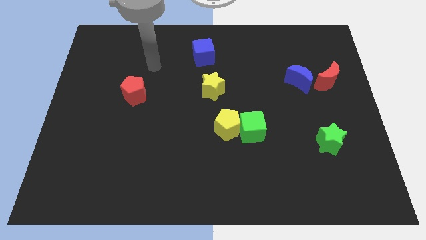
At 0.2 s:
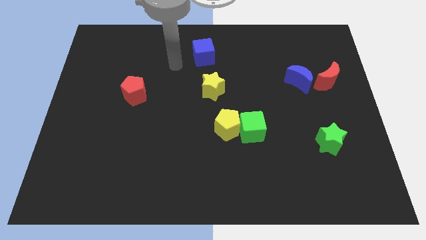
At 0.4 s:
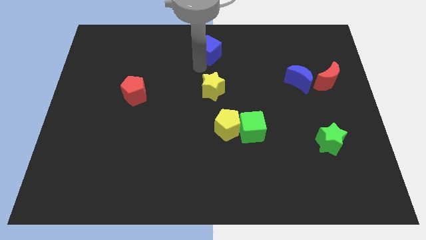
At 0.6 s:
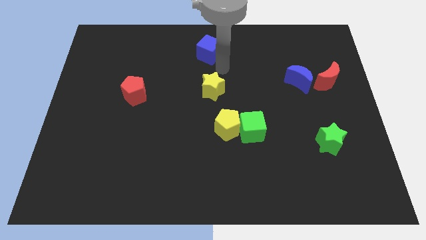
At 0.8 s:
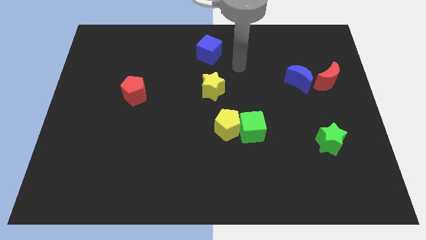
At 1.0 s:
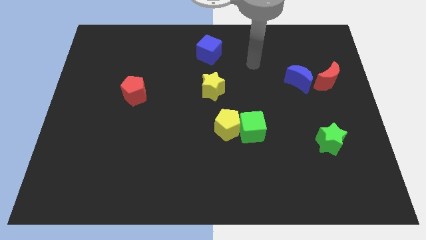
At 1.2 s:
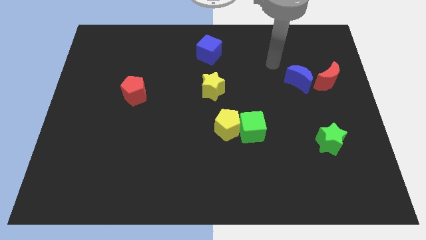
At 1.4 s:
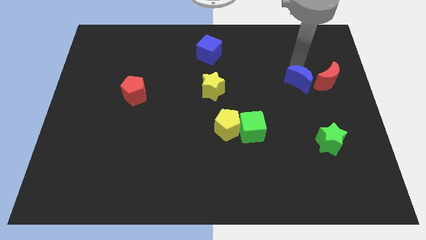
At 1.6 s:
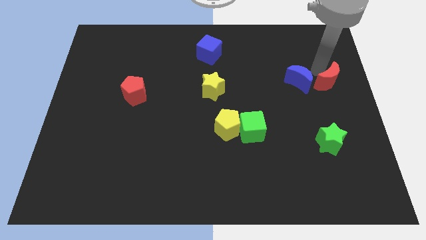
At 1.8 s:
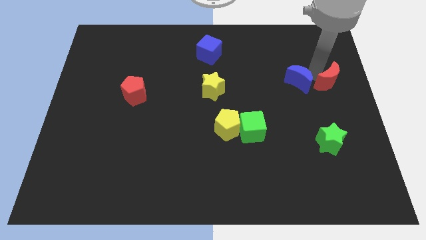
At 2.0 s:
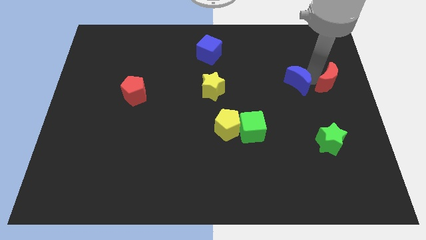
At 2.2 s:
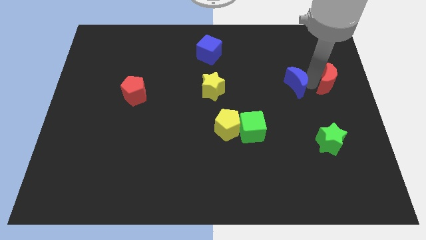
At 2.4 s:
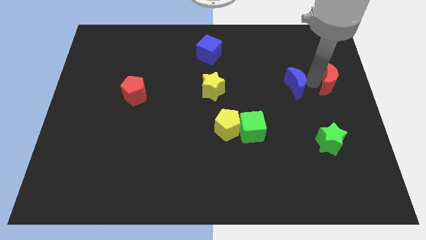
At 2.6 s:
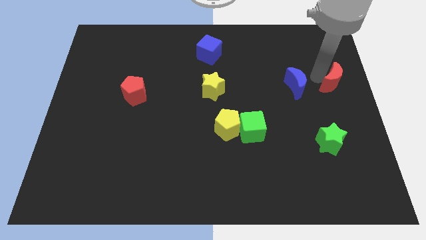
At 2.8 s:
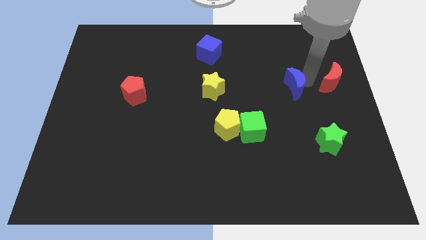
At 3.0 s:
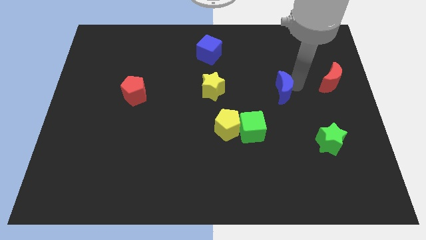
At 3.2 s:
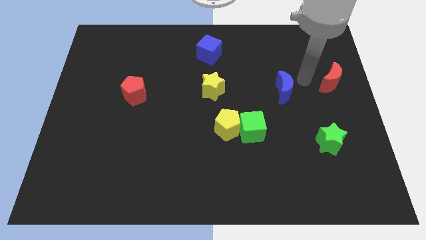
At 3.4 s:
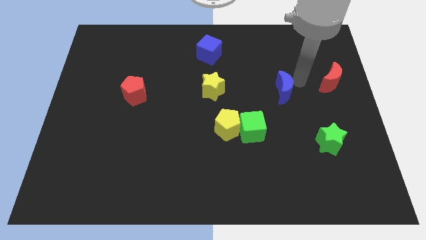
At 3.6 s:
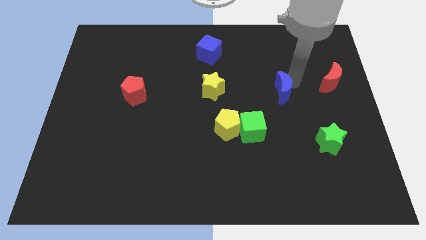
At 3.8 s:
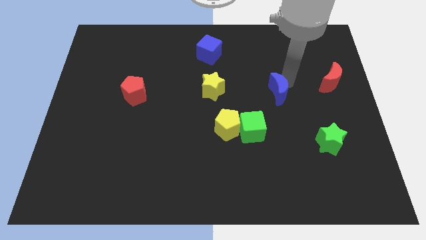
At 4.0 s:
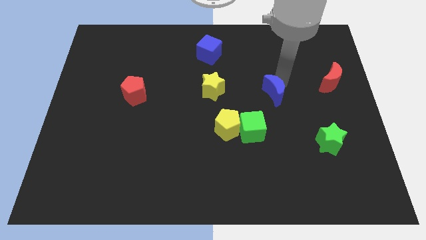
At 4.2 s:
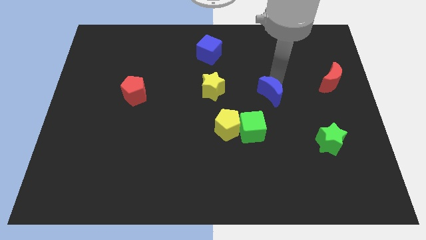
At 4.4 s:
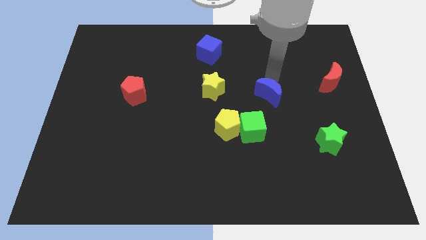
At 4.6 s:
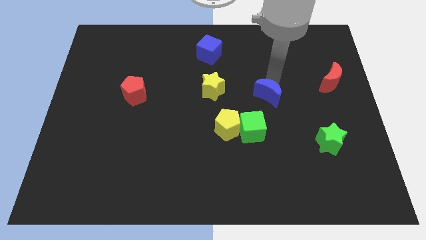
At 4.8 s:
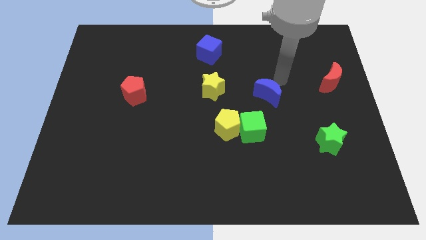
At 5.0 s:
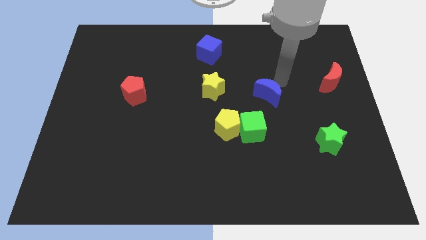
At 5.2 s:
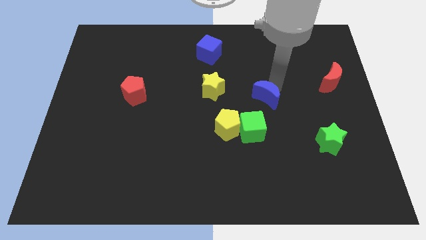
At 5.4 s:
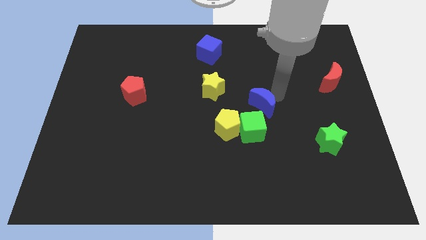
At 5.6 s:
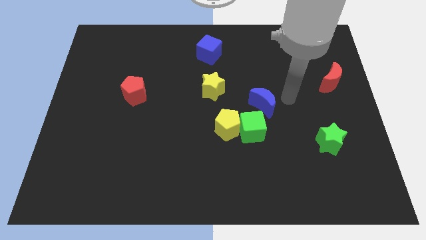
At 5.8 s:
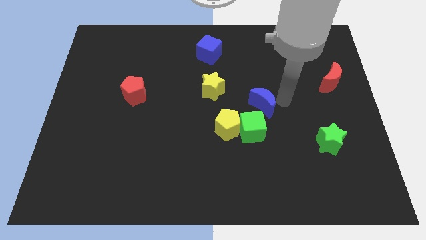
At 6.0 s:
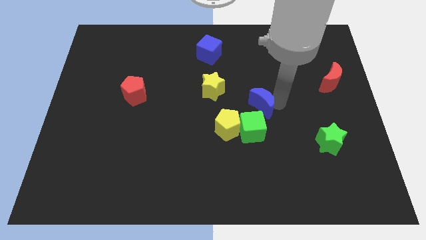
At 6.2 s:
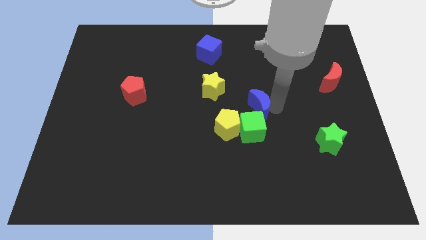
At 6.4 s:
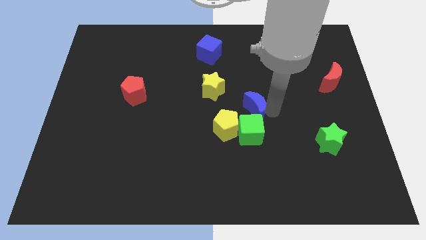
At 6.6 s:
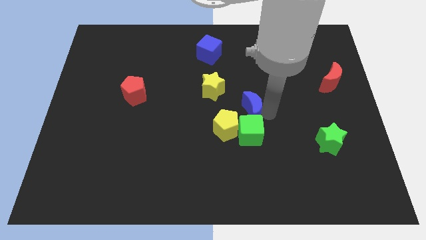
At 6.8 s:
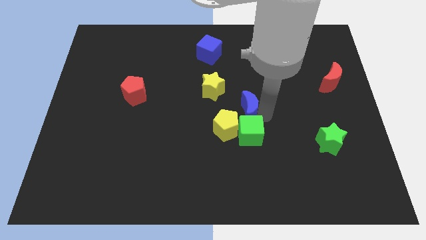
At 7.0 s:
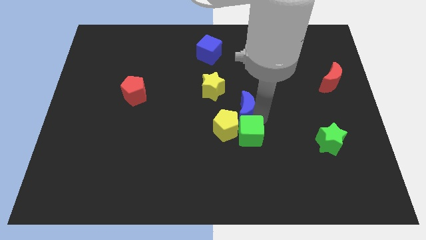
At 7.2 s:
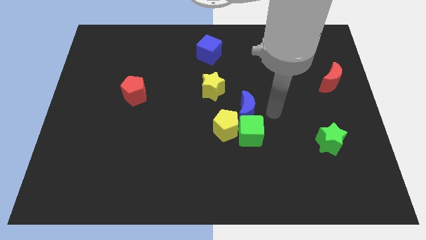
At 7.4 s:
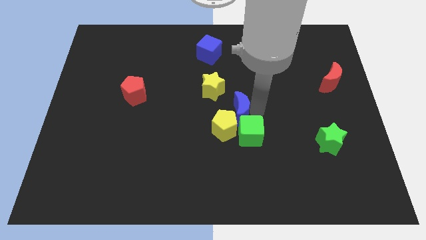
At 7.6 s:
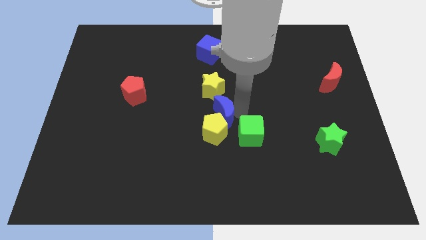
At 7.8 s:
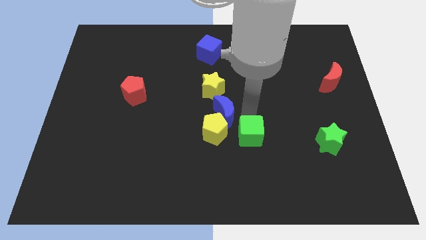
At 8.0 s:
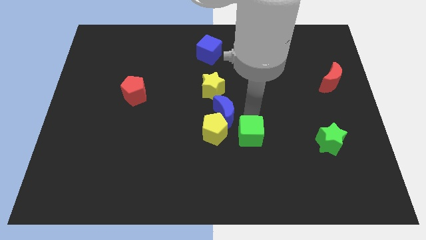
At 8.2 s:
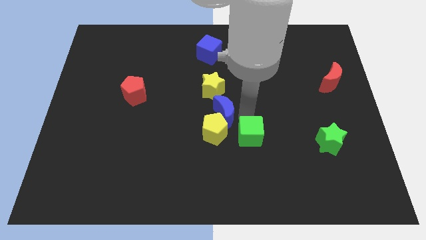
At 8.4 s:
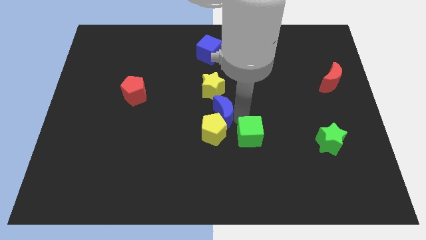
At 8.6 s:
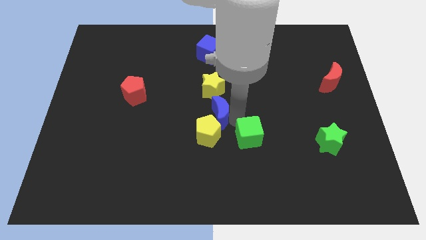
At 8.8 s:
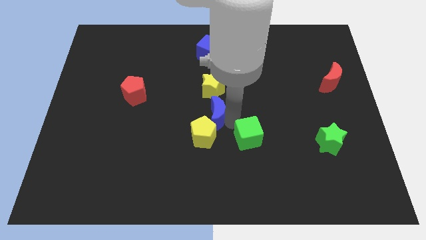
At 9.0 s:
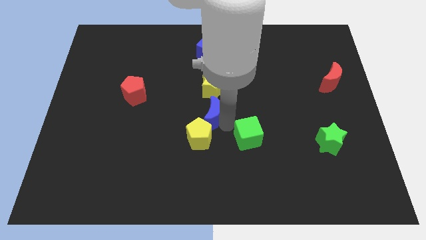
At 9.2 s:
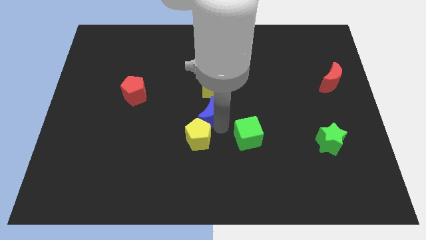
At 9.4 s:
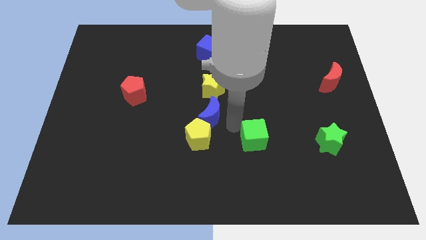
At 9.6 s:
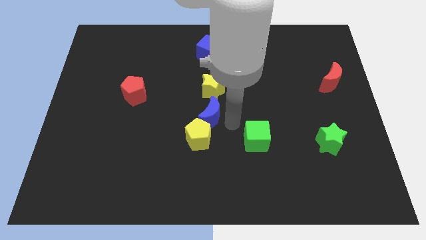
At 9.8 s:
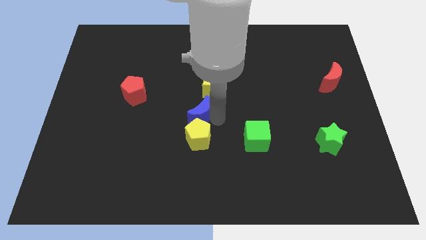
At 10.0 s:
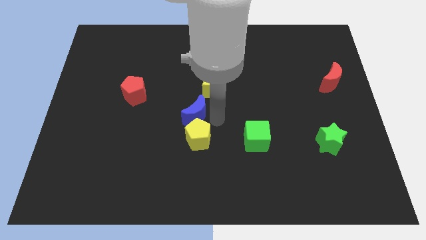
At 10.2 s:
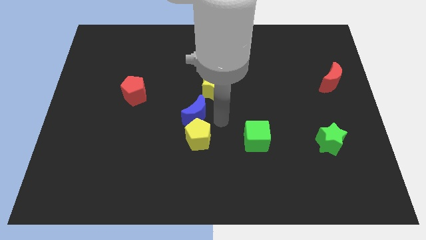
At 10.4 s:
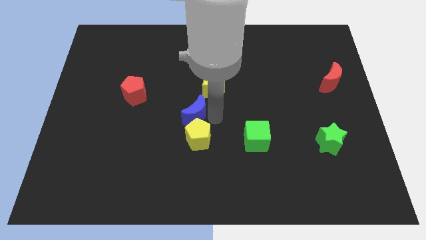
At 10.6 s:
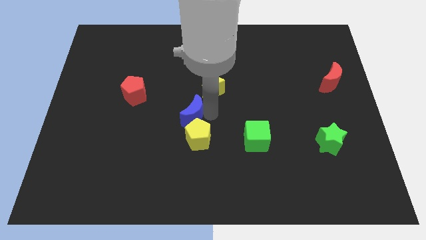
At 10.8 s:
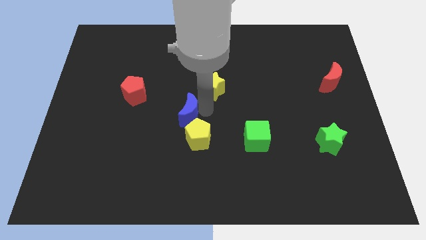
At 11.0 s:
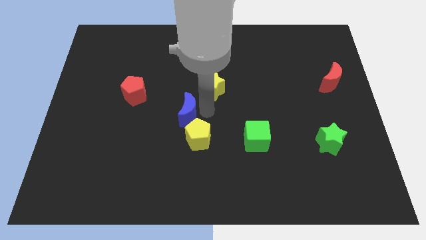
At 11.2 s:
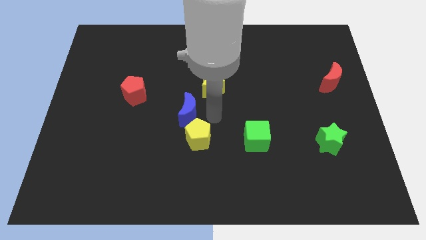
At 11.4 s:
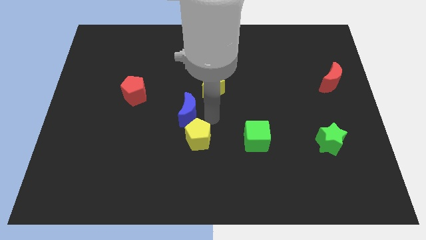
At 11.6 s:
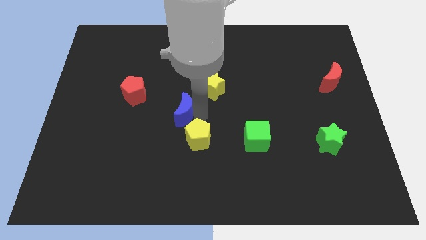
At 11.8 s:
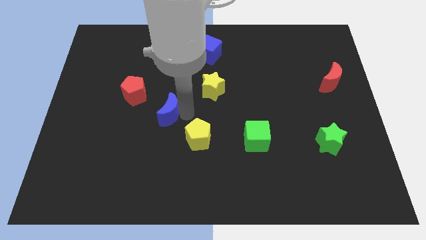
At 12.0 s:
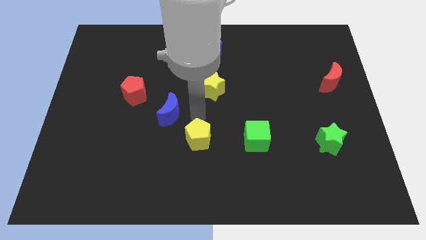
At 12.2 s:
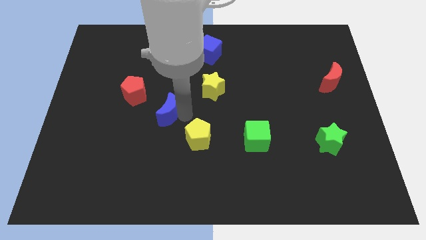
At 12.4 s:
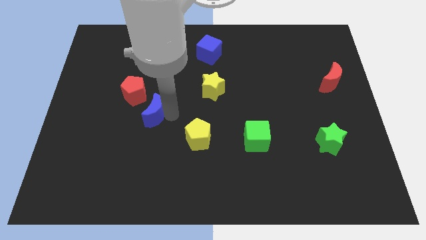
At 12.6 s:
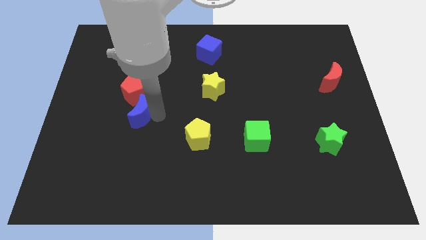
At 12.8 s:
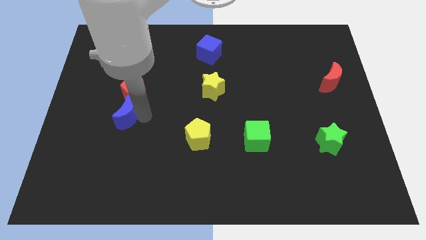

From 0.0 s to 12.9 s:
put the blue moon to the bottom left of the red pentagon

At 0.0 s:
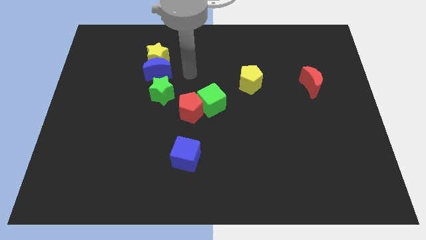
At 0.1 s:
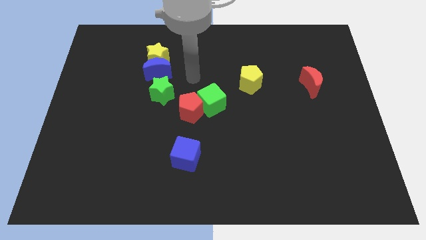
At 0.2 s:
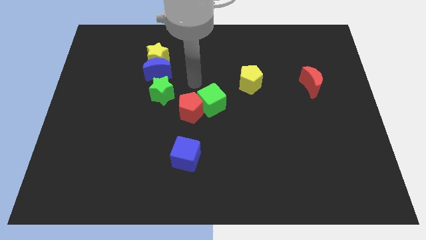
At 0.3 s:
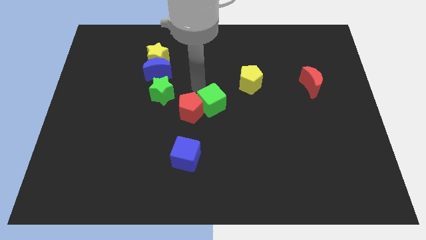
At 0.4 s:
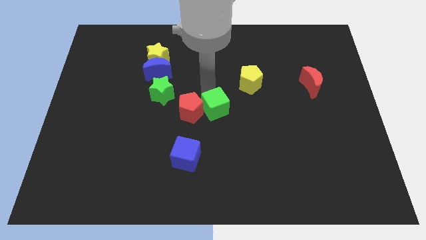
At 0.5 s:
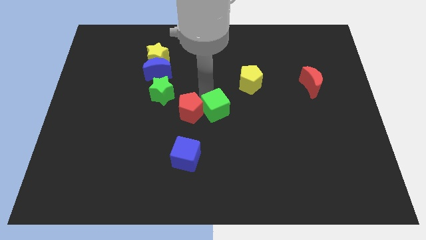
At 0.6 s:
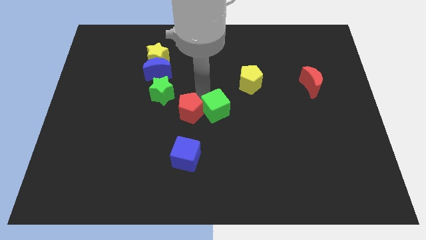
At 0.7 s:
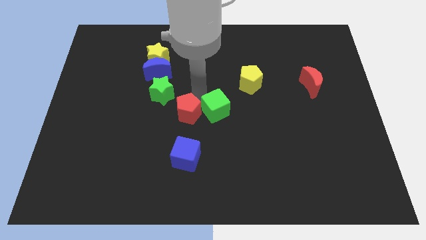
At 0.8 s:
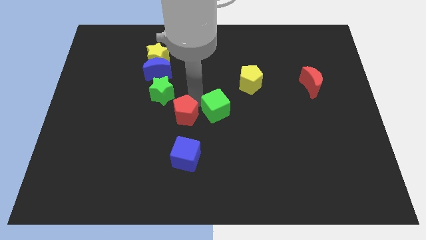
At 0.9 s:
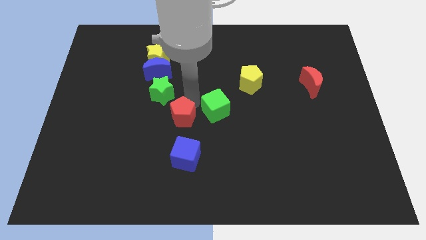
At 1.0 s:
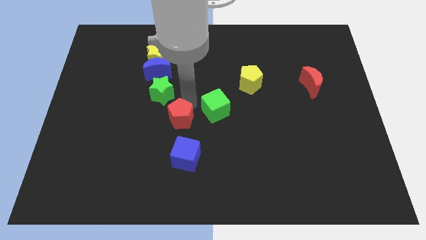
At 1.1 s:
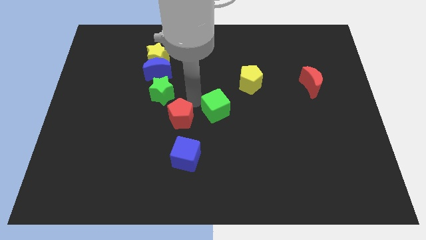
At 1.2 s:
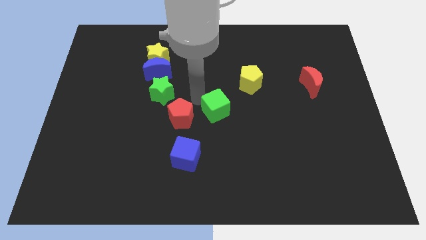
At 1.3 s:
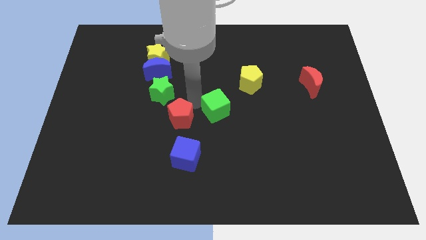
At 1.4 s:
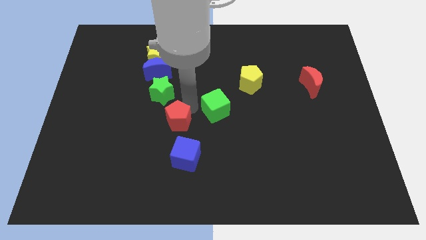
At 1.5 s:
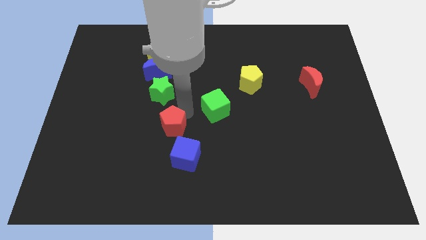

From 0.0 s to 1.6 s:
push the red pentagon diagonally up and to the left of the blue cube

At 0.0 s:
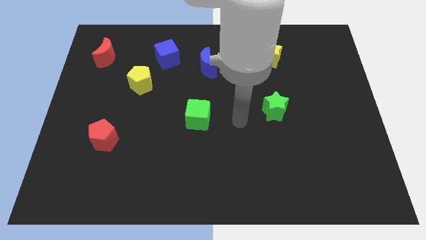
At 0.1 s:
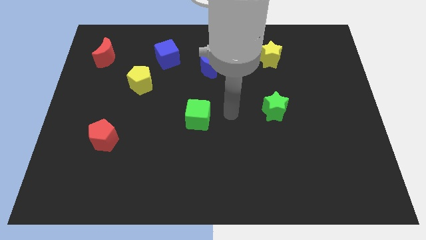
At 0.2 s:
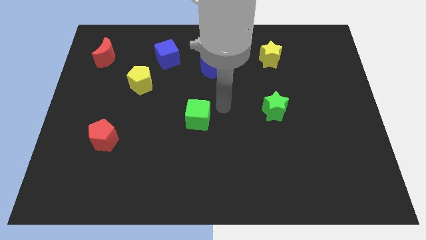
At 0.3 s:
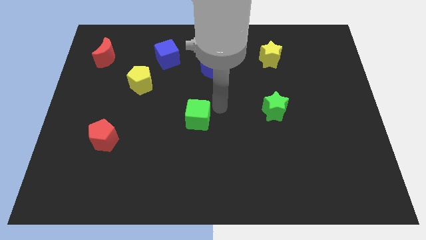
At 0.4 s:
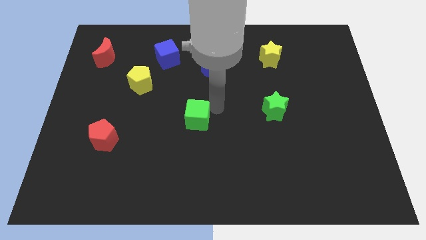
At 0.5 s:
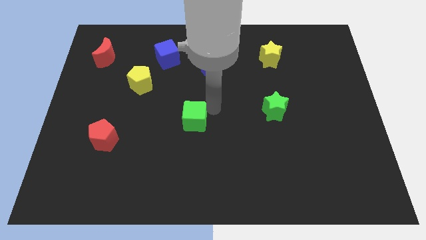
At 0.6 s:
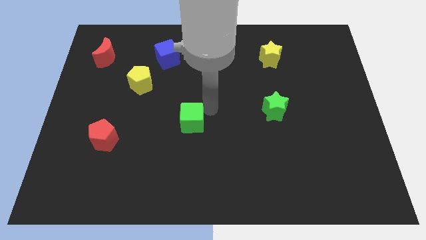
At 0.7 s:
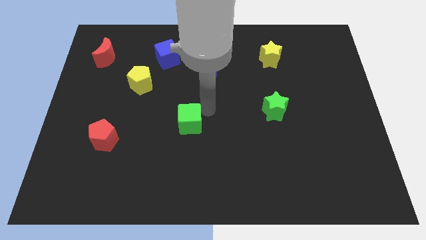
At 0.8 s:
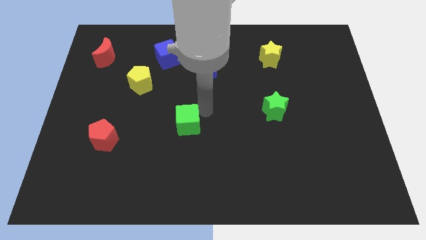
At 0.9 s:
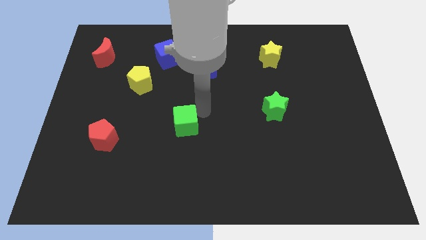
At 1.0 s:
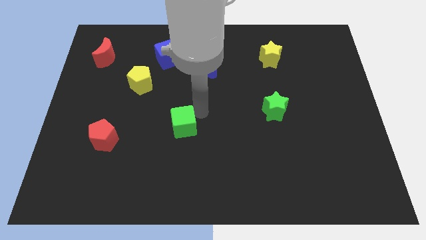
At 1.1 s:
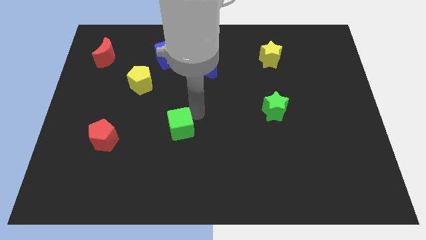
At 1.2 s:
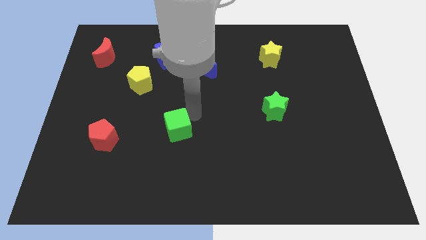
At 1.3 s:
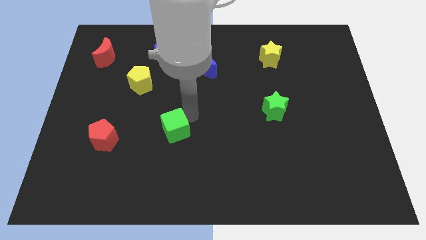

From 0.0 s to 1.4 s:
push the green cube to the right side of the red pentagon
